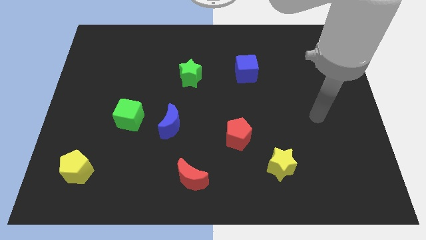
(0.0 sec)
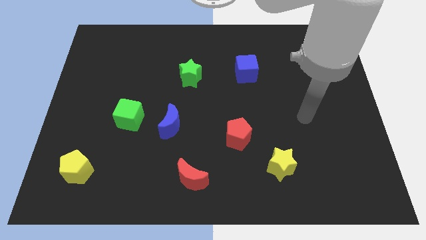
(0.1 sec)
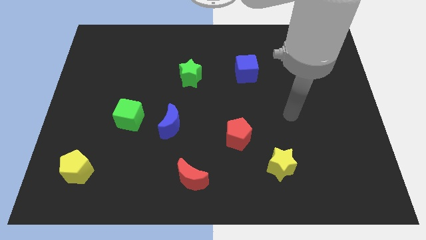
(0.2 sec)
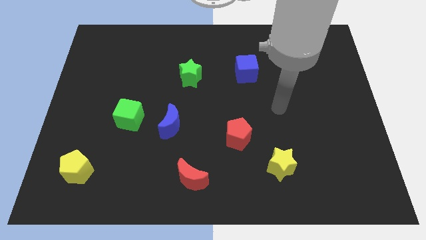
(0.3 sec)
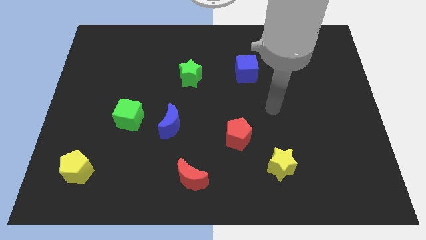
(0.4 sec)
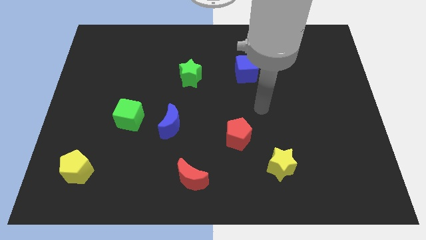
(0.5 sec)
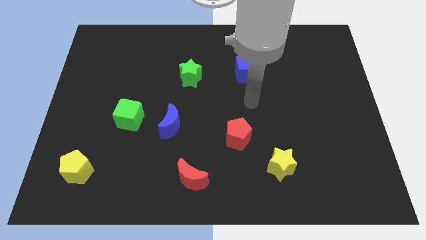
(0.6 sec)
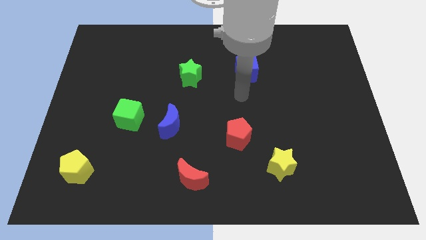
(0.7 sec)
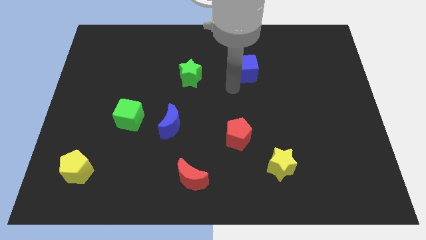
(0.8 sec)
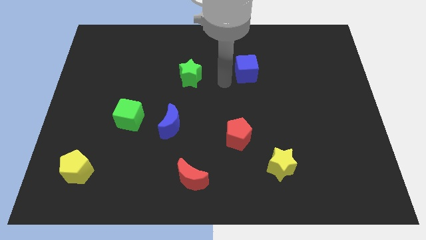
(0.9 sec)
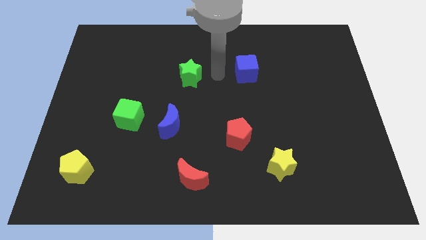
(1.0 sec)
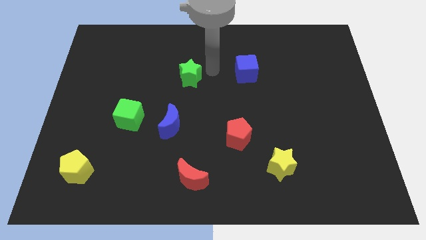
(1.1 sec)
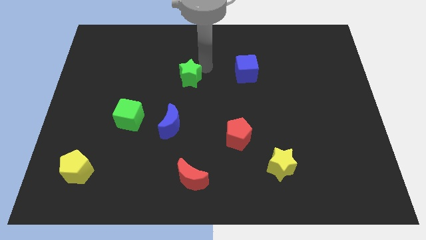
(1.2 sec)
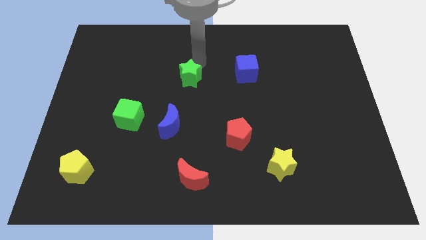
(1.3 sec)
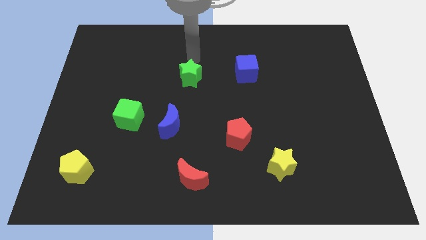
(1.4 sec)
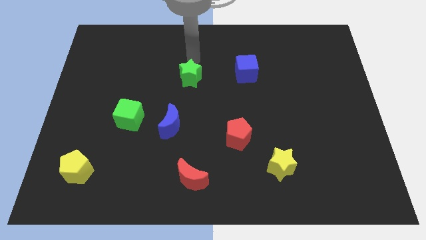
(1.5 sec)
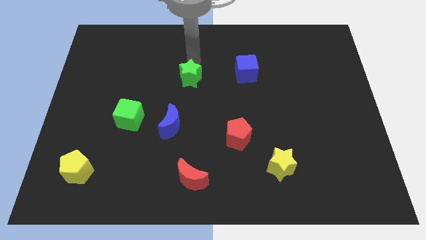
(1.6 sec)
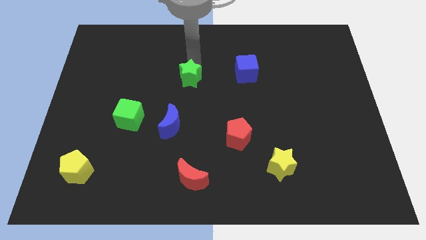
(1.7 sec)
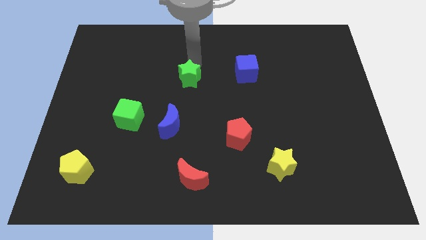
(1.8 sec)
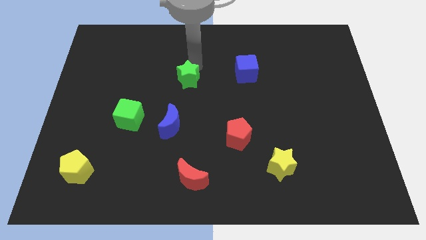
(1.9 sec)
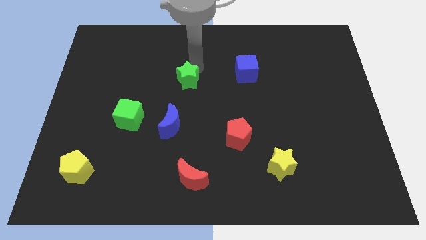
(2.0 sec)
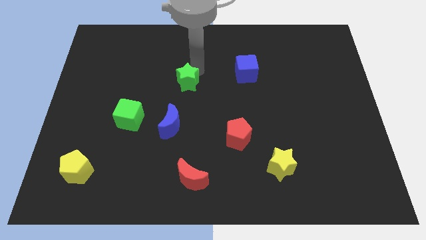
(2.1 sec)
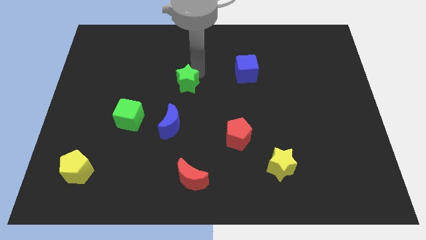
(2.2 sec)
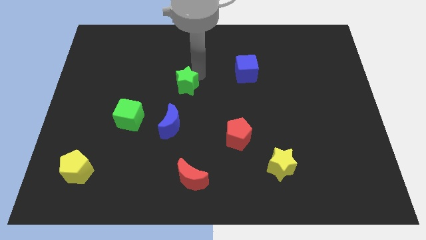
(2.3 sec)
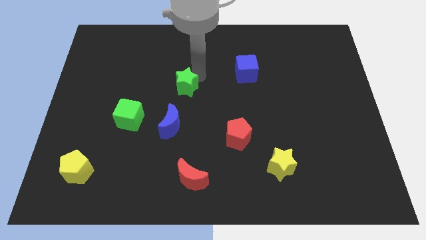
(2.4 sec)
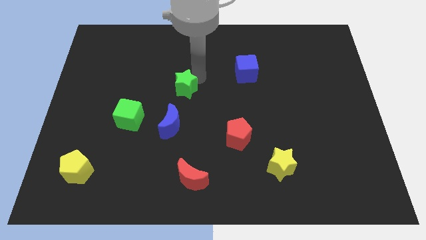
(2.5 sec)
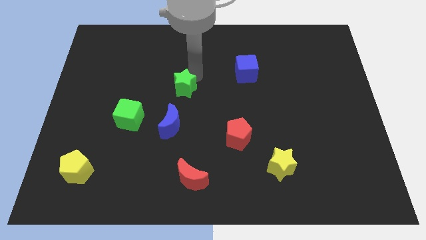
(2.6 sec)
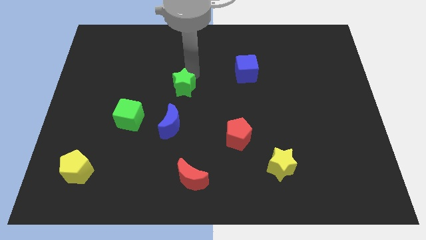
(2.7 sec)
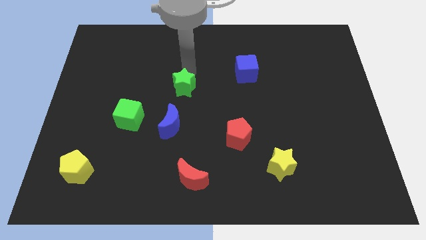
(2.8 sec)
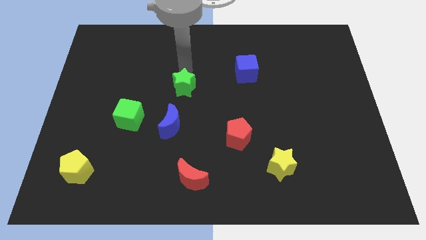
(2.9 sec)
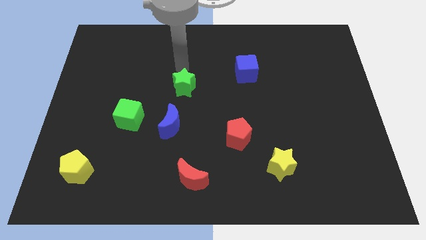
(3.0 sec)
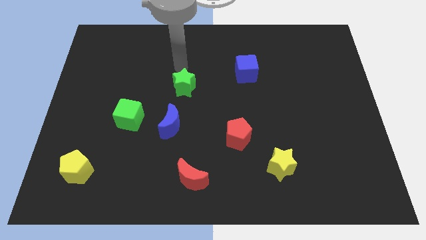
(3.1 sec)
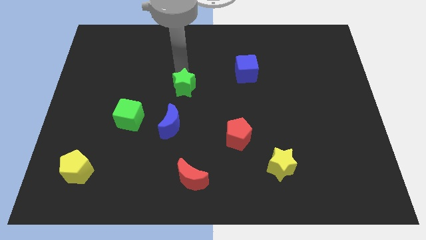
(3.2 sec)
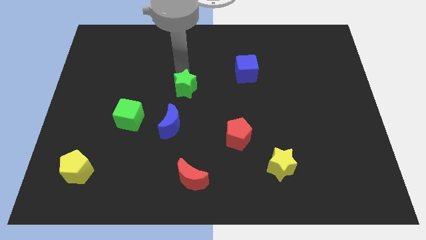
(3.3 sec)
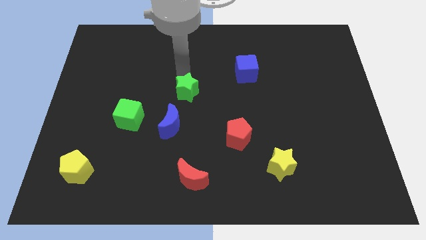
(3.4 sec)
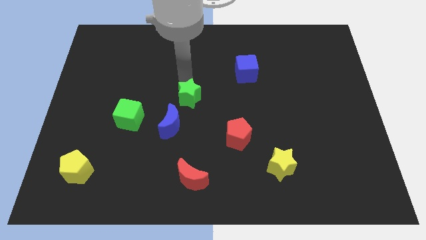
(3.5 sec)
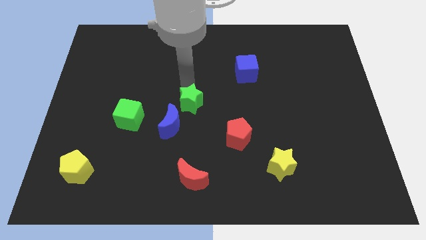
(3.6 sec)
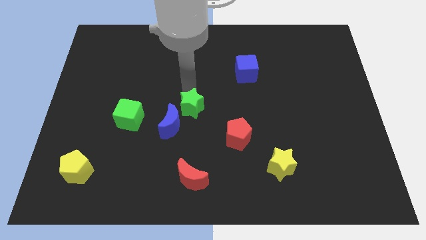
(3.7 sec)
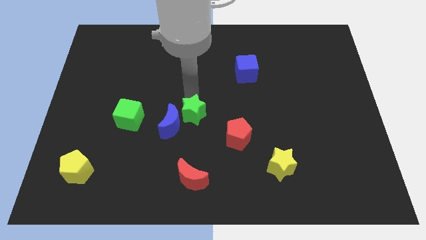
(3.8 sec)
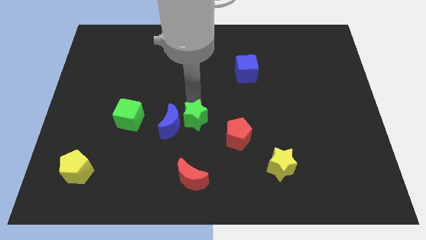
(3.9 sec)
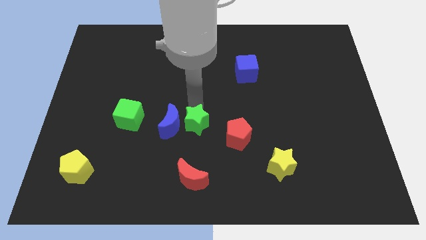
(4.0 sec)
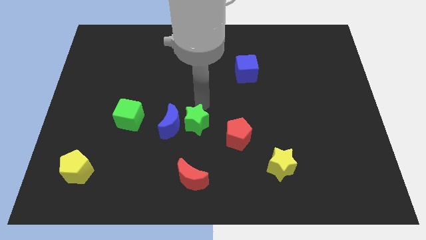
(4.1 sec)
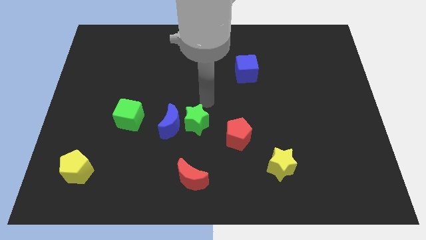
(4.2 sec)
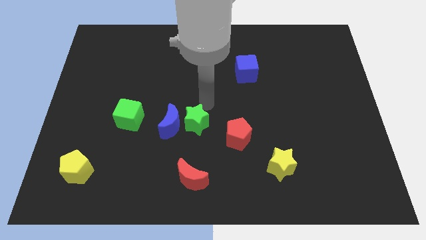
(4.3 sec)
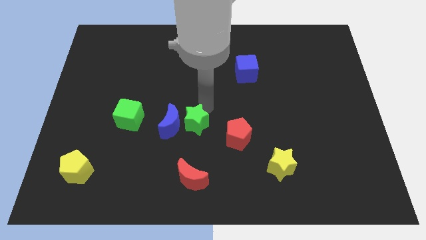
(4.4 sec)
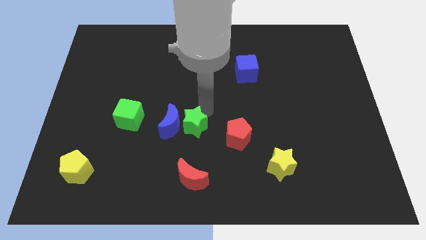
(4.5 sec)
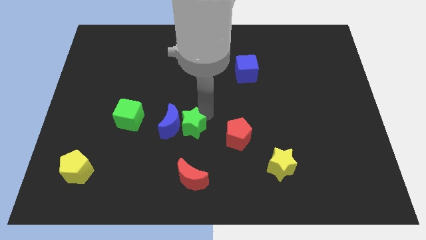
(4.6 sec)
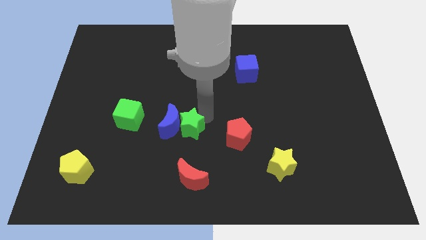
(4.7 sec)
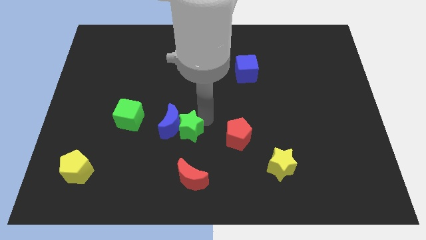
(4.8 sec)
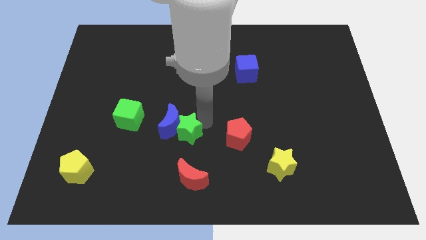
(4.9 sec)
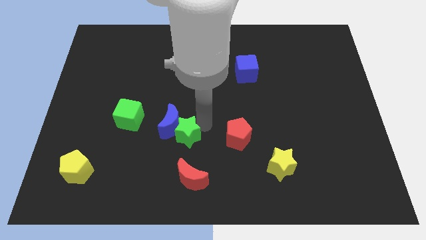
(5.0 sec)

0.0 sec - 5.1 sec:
move the green star below the blue moon

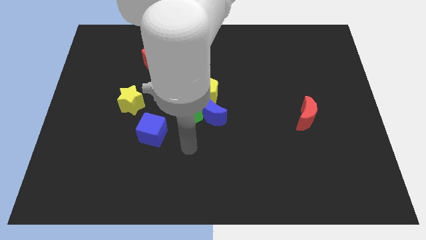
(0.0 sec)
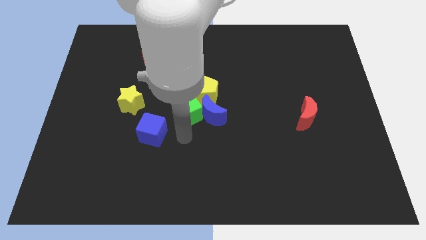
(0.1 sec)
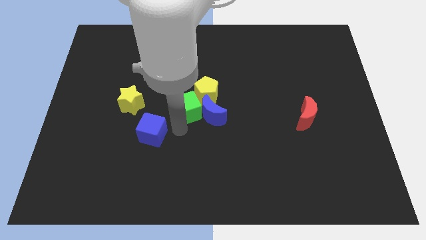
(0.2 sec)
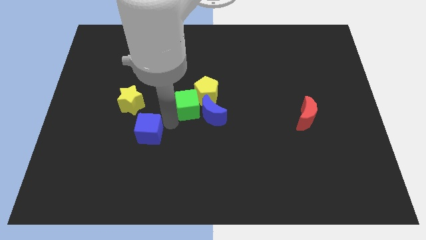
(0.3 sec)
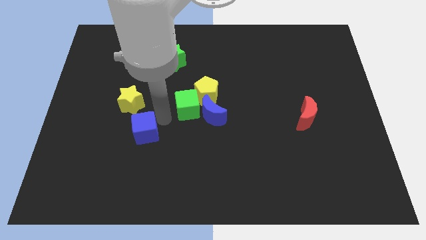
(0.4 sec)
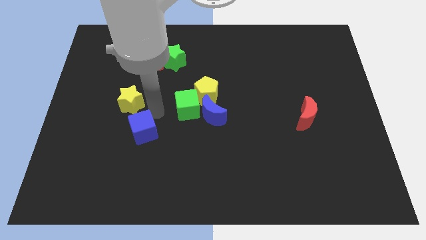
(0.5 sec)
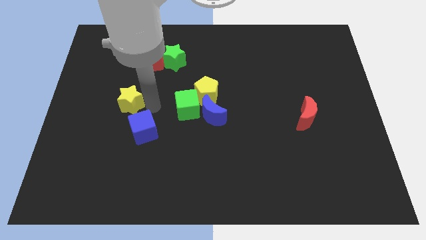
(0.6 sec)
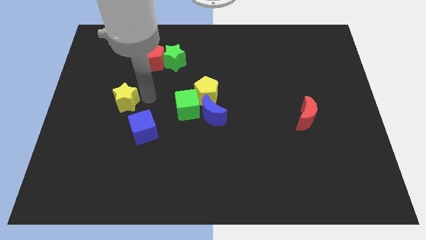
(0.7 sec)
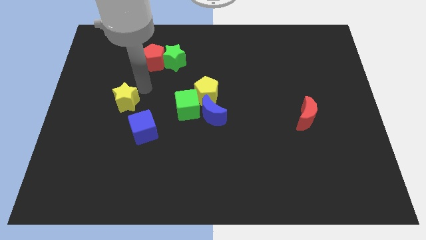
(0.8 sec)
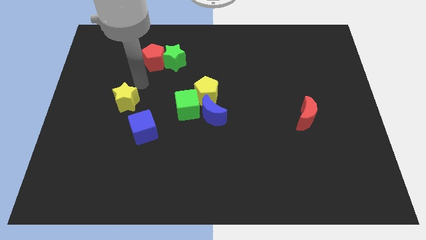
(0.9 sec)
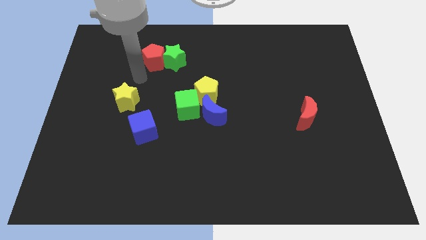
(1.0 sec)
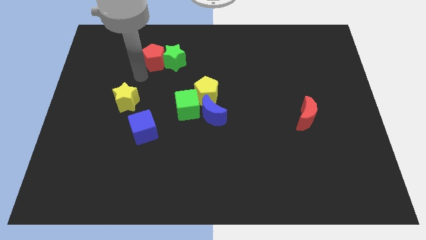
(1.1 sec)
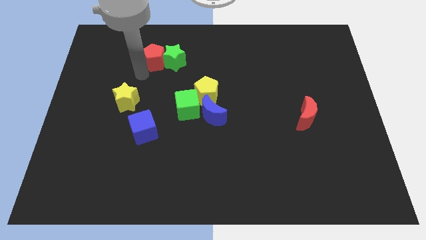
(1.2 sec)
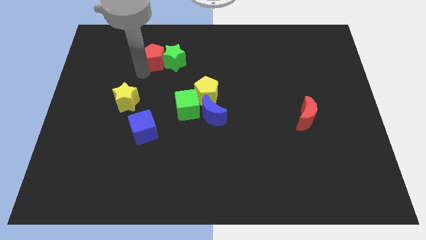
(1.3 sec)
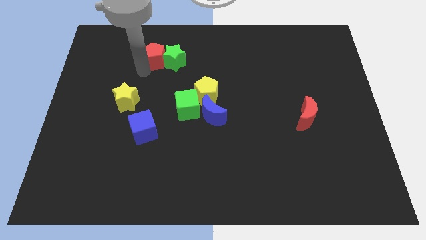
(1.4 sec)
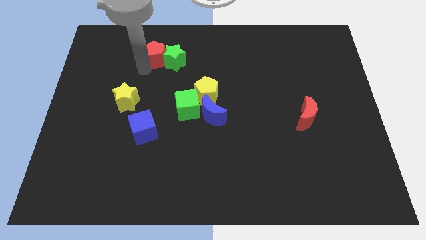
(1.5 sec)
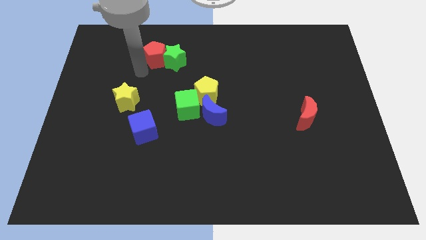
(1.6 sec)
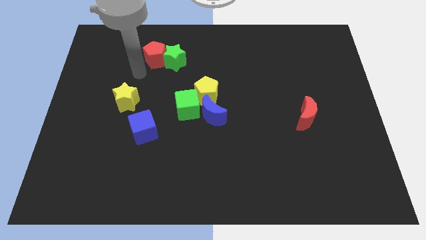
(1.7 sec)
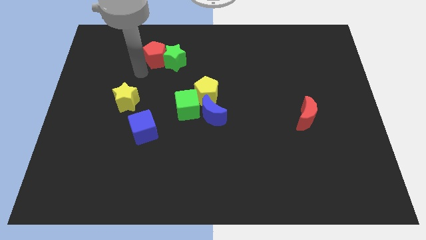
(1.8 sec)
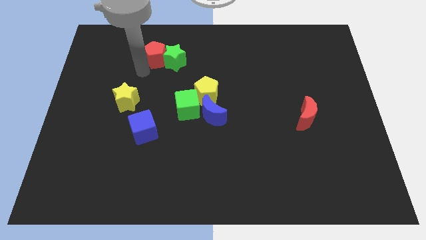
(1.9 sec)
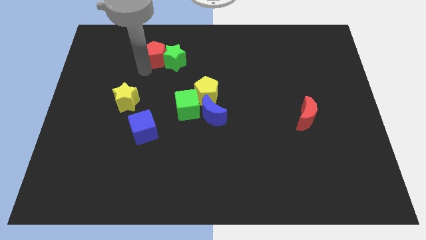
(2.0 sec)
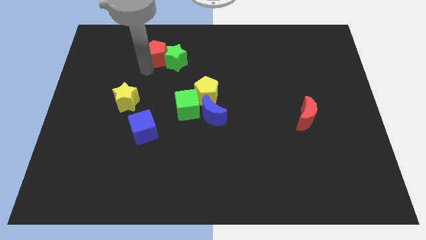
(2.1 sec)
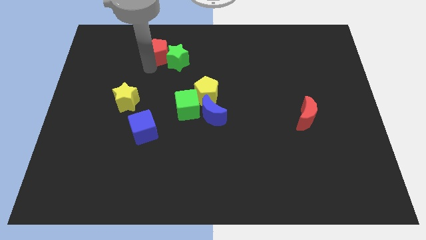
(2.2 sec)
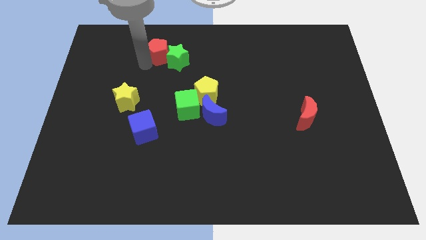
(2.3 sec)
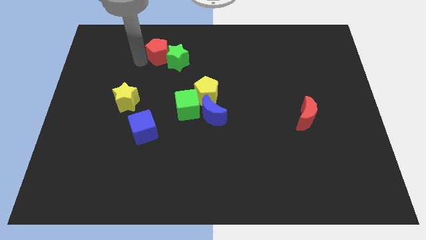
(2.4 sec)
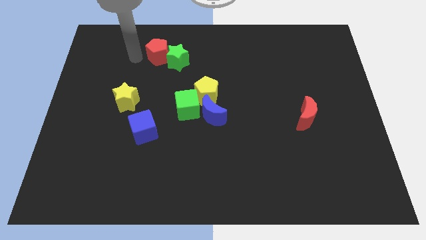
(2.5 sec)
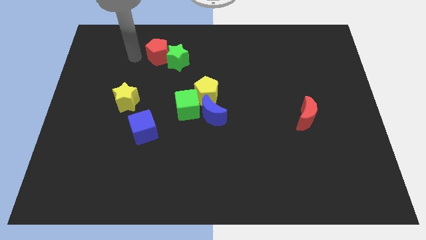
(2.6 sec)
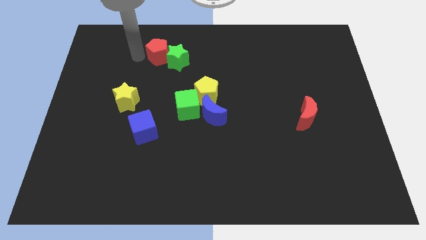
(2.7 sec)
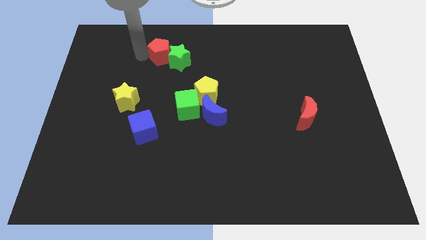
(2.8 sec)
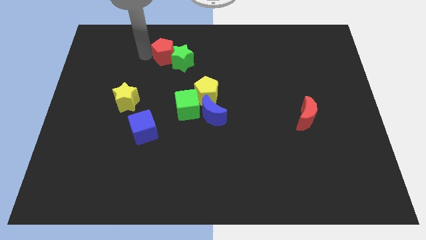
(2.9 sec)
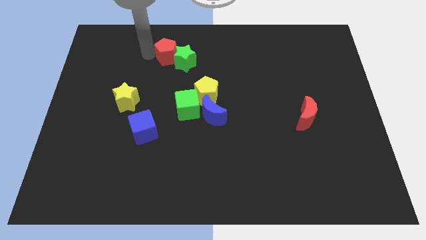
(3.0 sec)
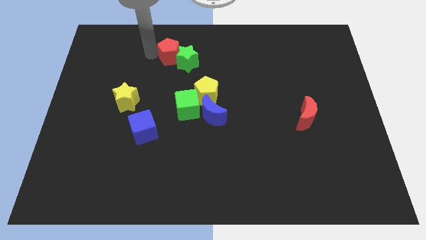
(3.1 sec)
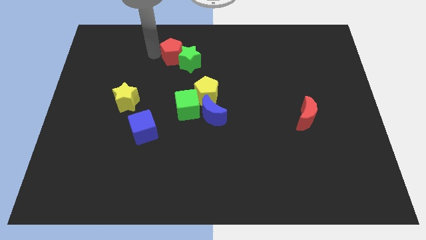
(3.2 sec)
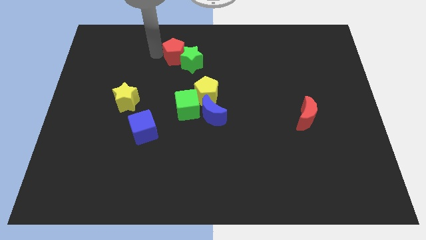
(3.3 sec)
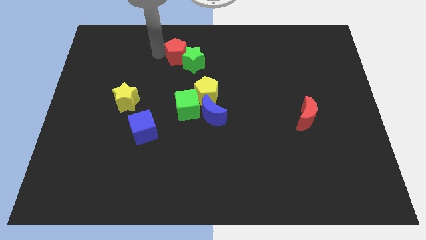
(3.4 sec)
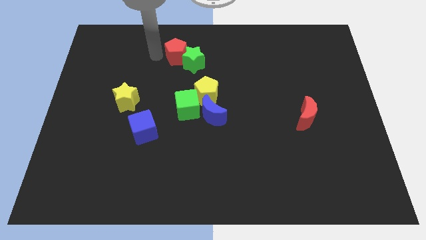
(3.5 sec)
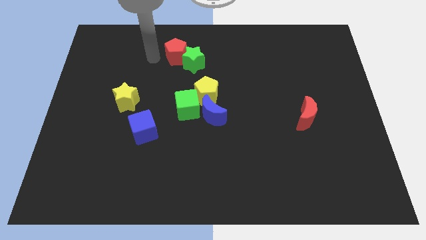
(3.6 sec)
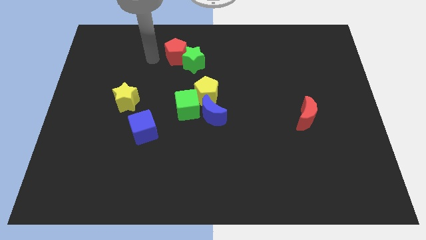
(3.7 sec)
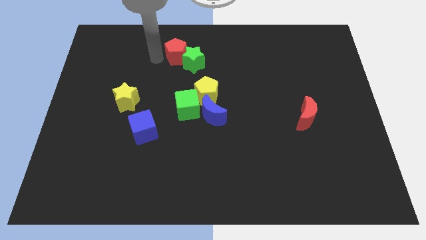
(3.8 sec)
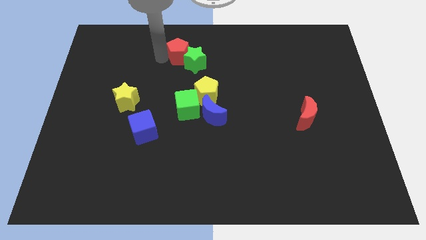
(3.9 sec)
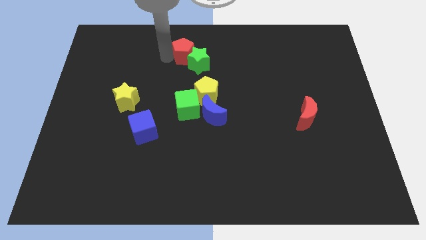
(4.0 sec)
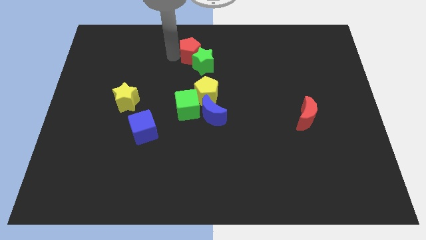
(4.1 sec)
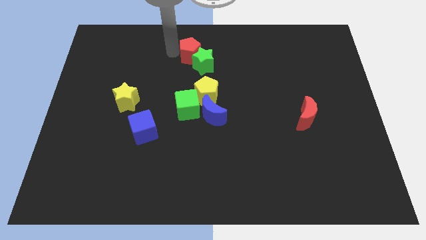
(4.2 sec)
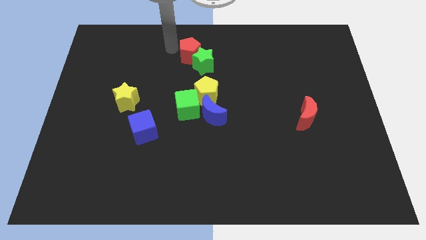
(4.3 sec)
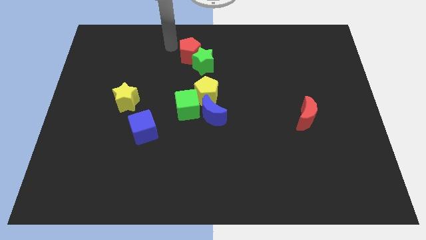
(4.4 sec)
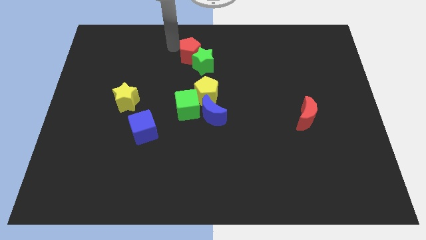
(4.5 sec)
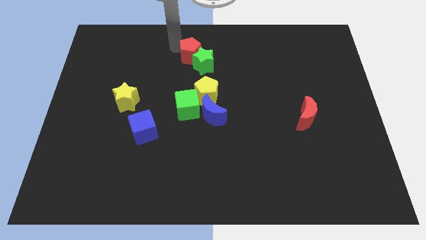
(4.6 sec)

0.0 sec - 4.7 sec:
slide the red pentagon to the top of the yellow pentagon
